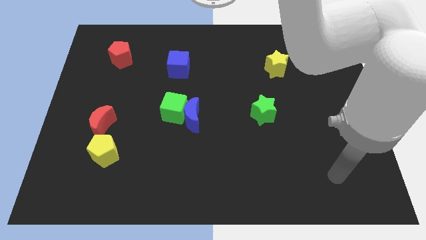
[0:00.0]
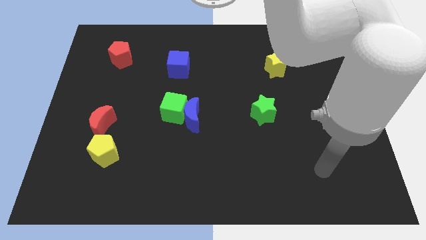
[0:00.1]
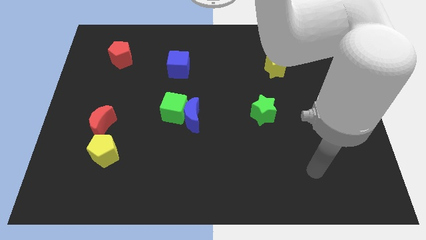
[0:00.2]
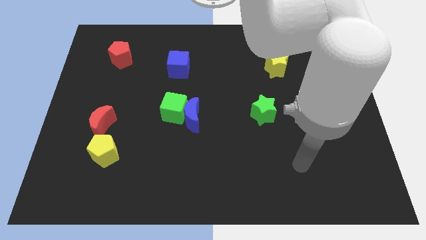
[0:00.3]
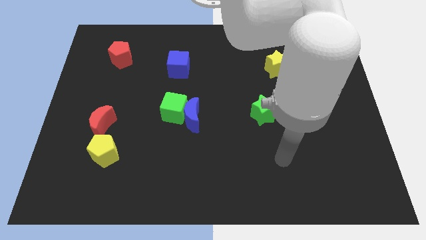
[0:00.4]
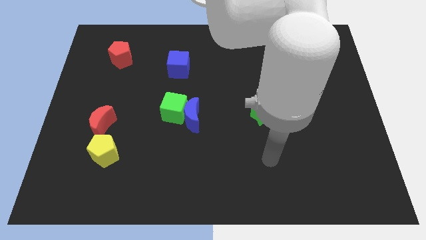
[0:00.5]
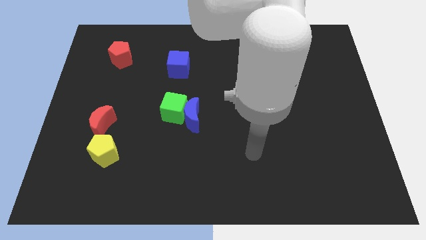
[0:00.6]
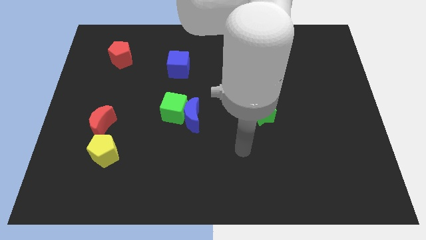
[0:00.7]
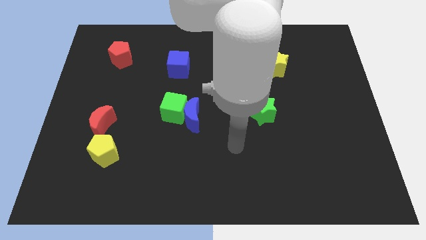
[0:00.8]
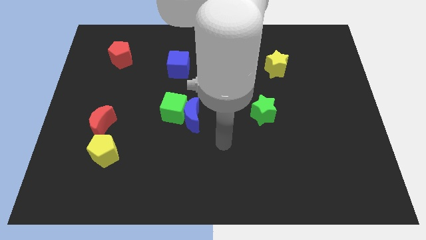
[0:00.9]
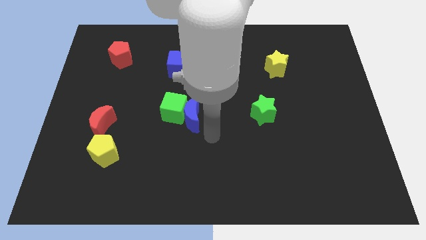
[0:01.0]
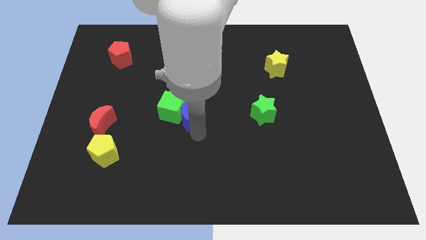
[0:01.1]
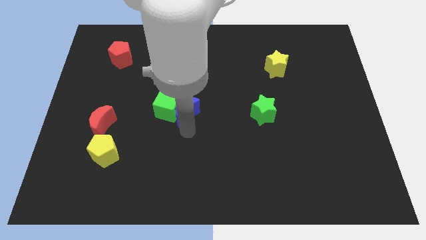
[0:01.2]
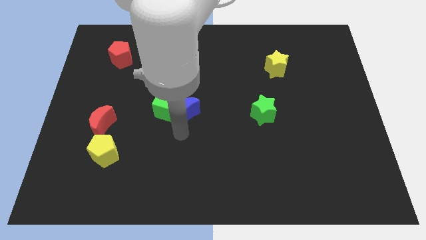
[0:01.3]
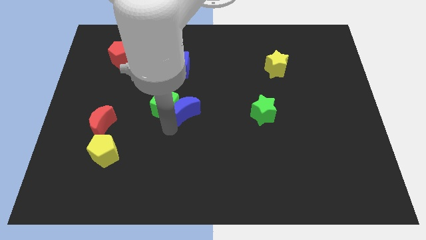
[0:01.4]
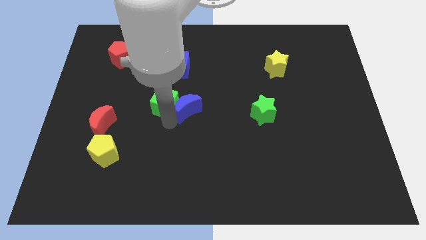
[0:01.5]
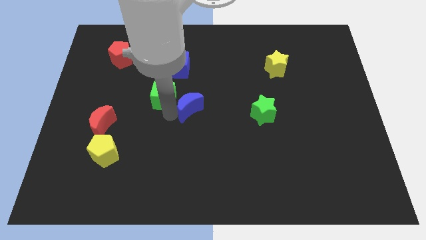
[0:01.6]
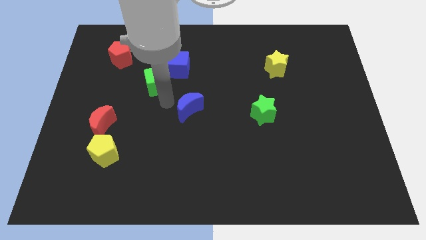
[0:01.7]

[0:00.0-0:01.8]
move the blue moon away from the green cube

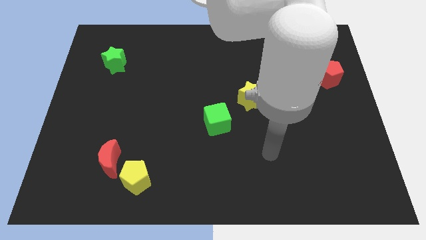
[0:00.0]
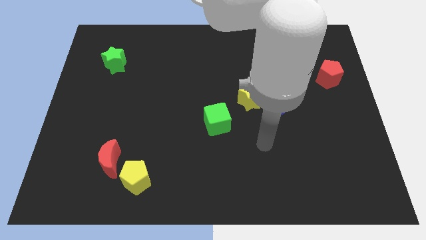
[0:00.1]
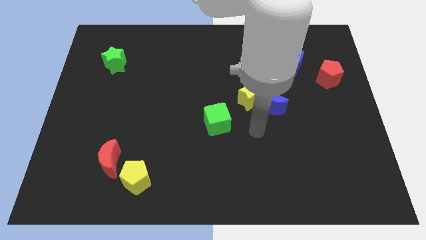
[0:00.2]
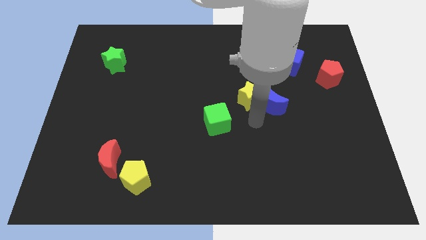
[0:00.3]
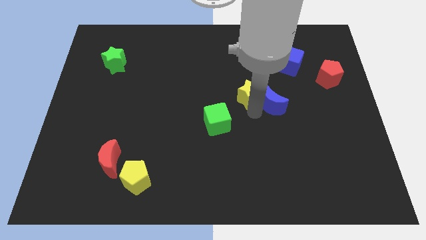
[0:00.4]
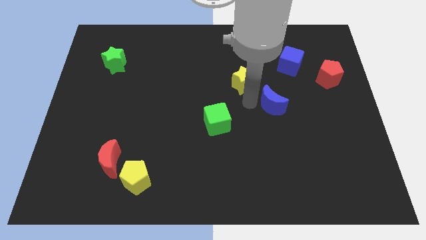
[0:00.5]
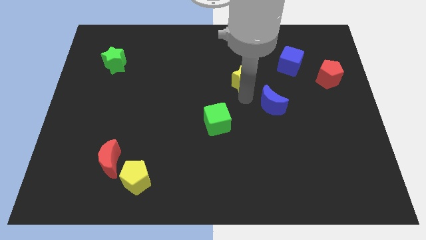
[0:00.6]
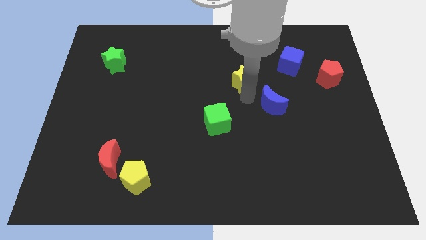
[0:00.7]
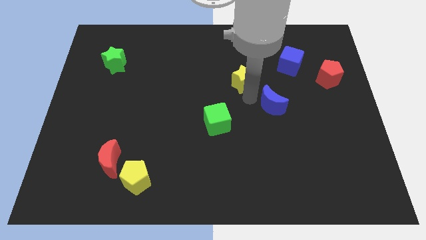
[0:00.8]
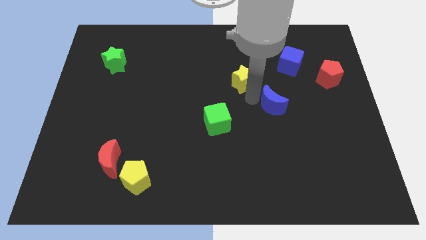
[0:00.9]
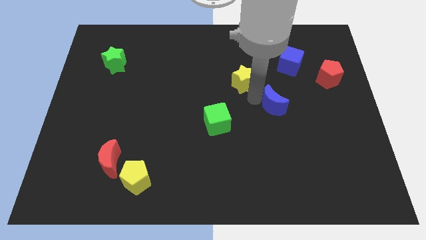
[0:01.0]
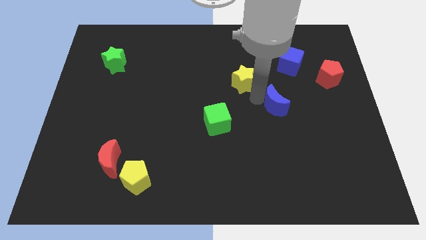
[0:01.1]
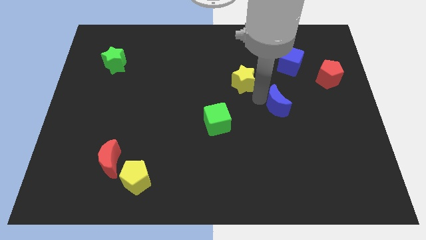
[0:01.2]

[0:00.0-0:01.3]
move the blue moon away from the yellow star

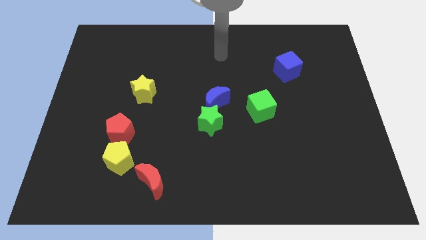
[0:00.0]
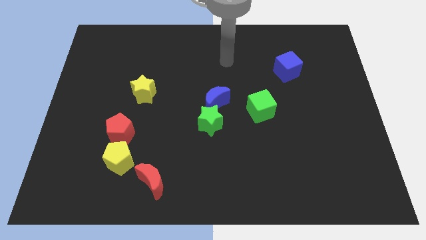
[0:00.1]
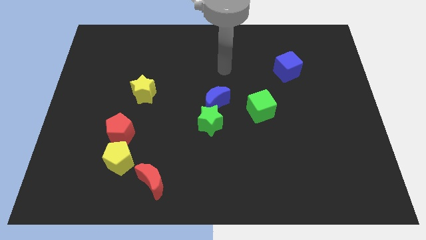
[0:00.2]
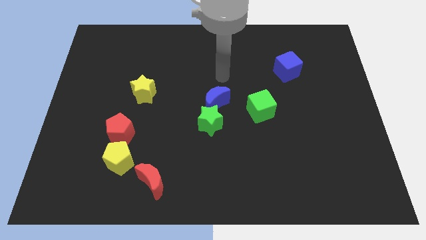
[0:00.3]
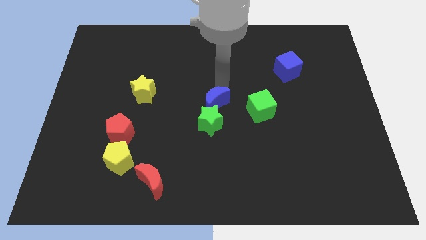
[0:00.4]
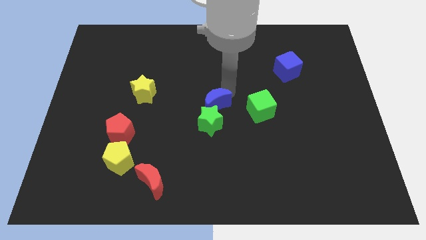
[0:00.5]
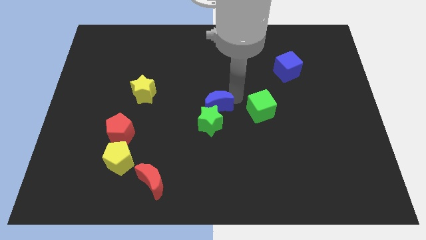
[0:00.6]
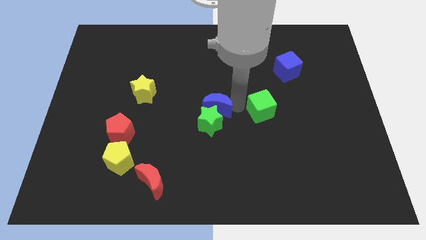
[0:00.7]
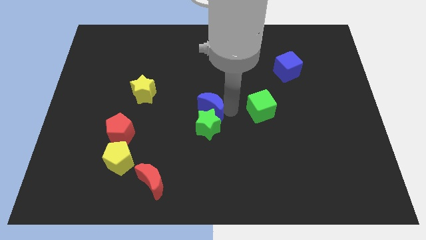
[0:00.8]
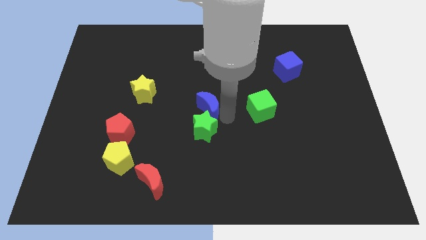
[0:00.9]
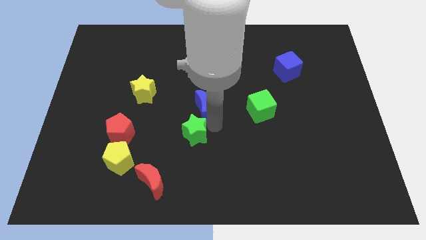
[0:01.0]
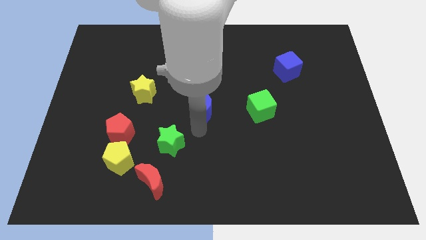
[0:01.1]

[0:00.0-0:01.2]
pull the blue moon apart from the green star

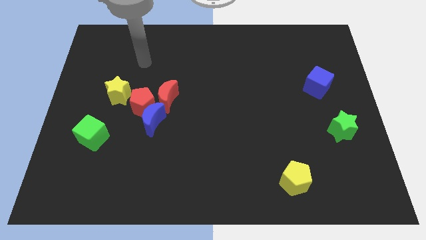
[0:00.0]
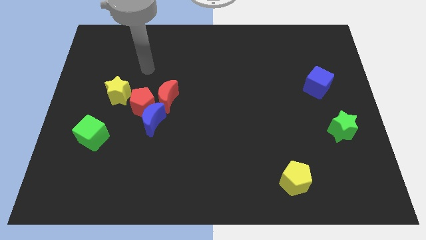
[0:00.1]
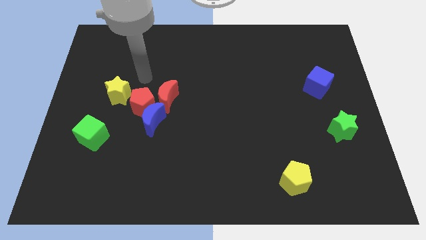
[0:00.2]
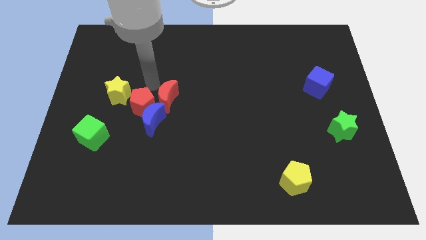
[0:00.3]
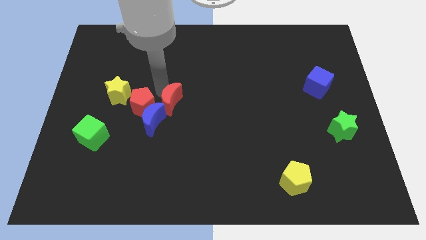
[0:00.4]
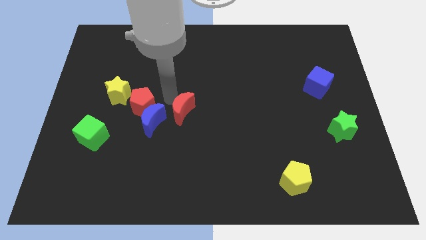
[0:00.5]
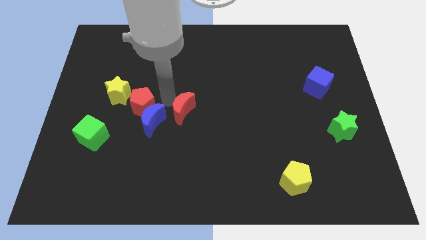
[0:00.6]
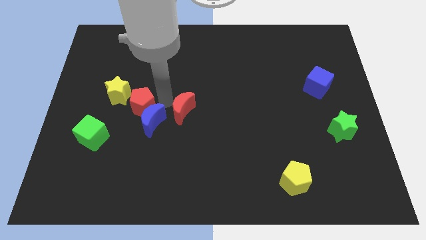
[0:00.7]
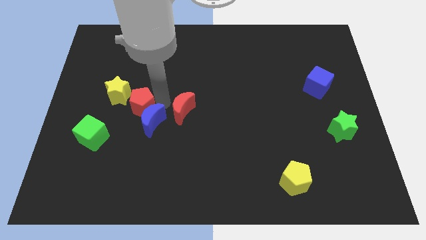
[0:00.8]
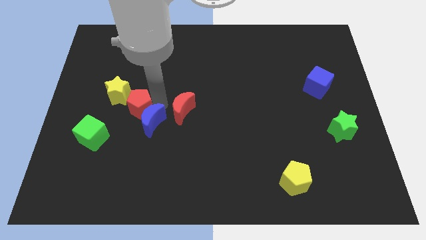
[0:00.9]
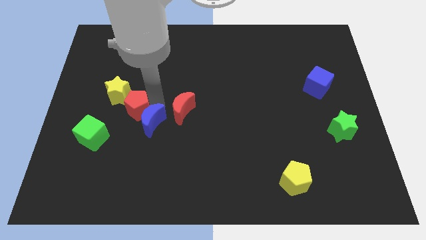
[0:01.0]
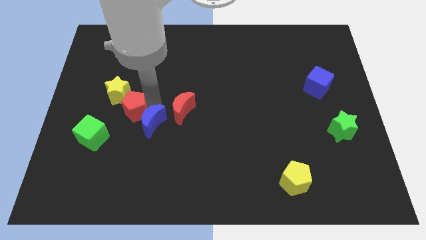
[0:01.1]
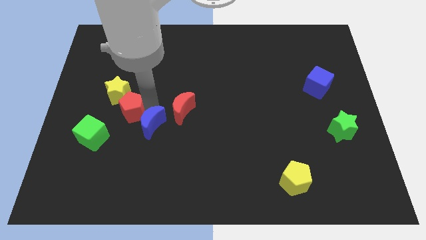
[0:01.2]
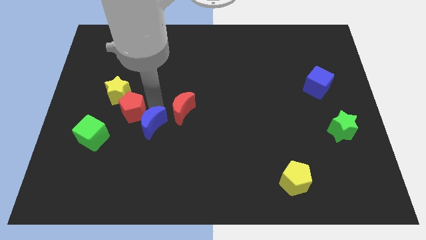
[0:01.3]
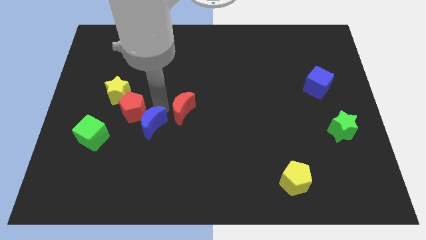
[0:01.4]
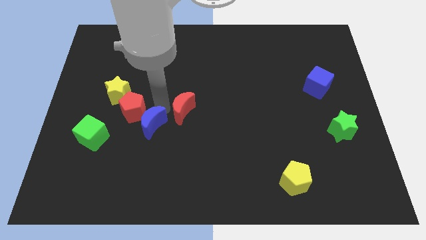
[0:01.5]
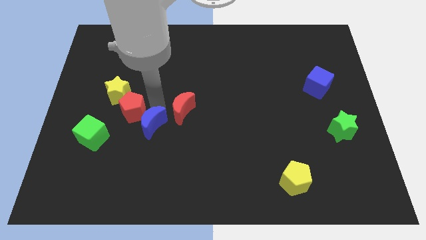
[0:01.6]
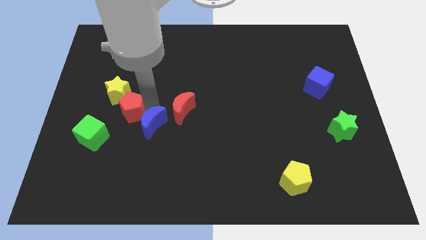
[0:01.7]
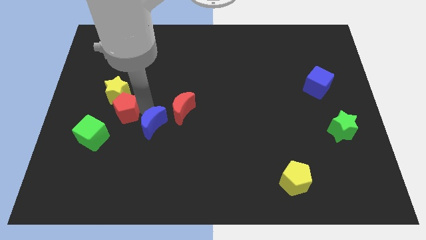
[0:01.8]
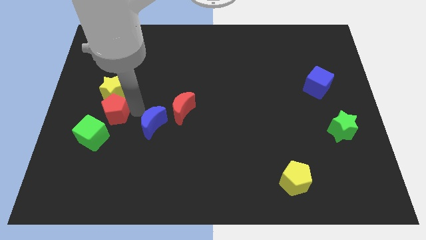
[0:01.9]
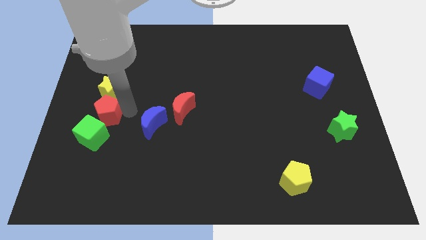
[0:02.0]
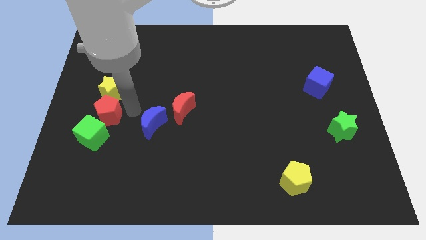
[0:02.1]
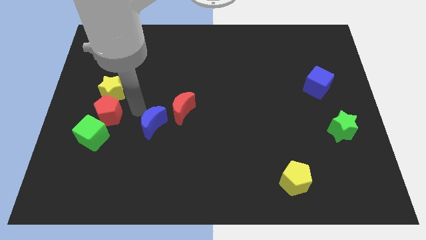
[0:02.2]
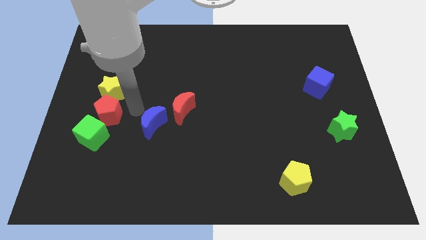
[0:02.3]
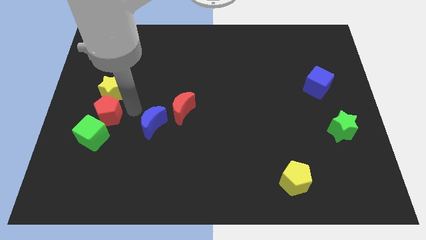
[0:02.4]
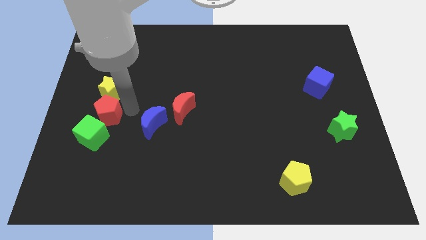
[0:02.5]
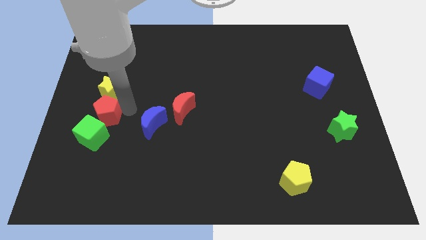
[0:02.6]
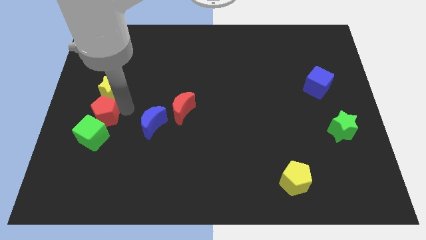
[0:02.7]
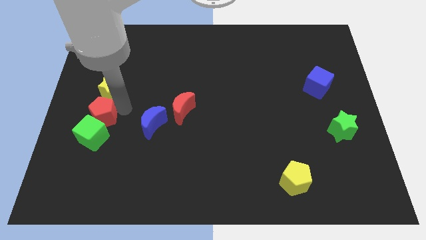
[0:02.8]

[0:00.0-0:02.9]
separate the red pentagon from the group of blocks

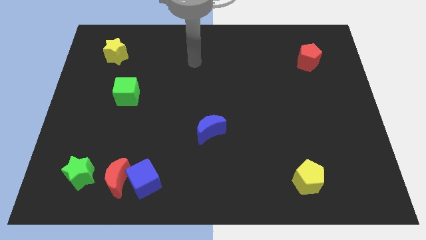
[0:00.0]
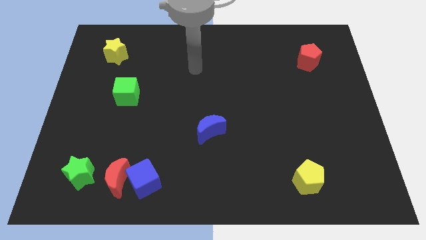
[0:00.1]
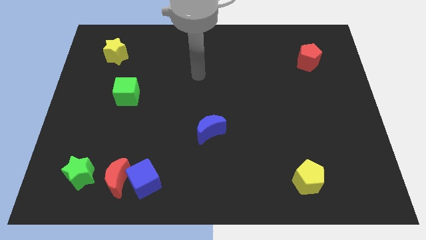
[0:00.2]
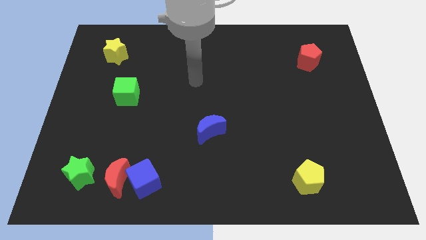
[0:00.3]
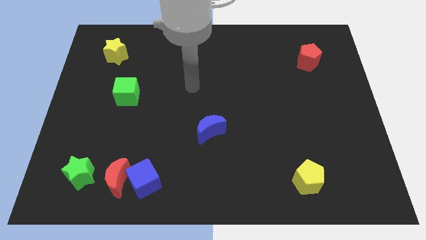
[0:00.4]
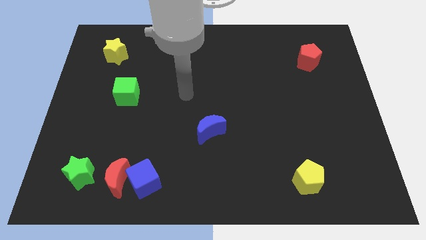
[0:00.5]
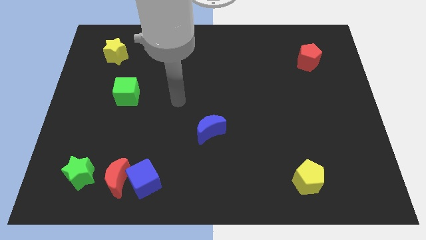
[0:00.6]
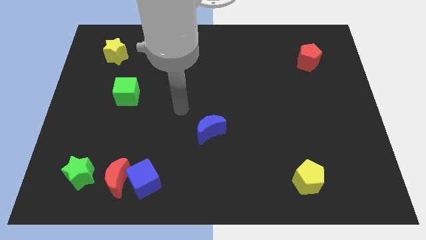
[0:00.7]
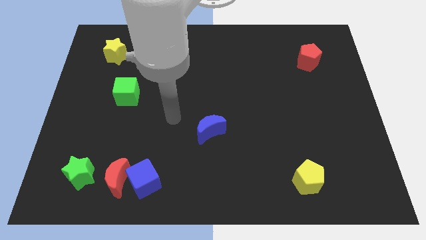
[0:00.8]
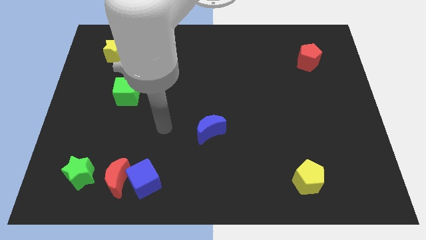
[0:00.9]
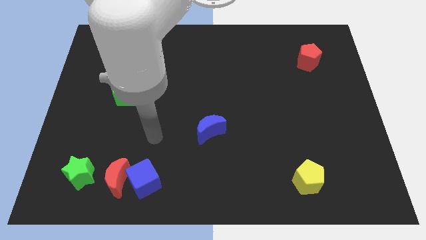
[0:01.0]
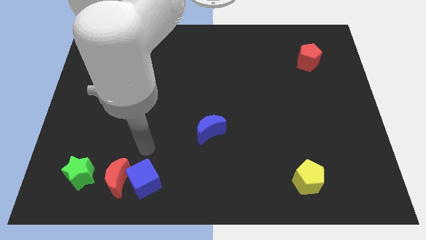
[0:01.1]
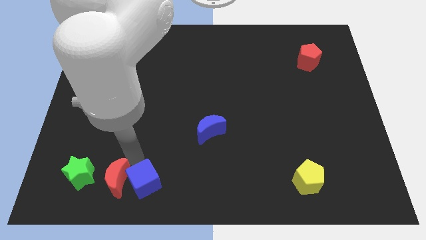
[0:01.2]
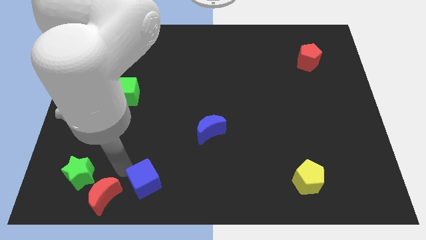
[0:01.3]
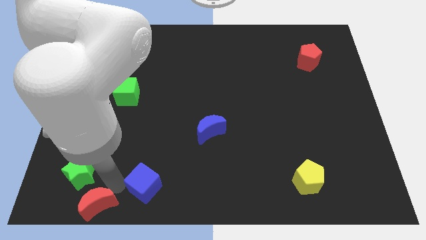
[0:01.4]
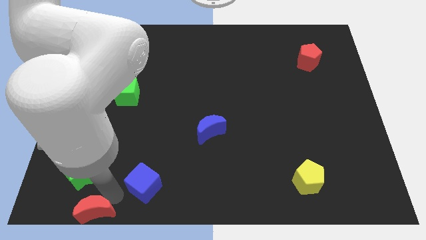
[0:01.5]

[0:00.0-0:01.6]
move the blue cube away from the red moon

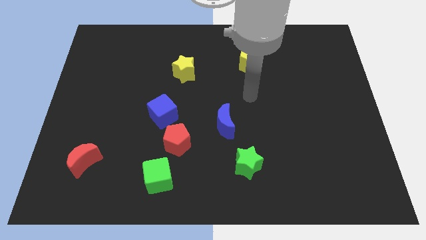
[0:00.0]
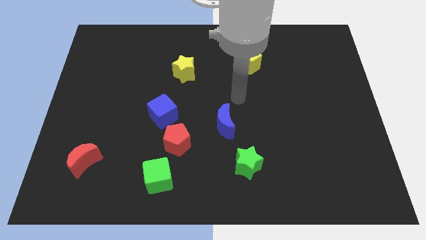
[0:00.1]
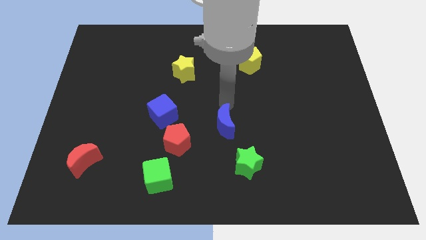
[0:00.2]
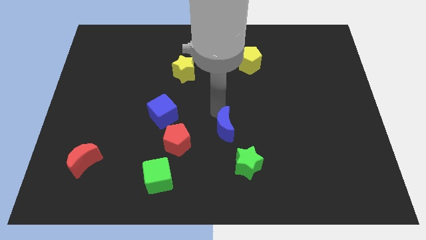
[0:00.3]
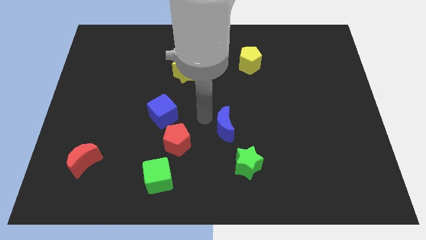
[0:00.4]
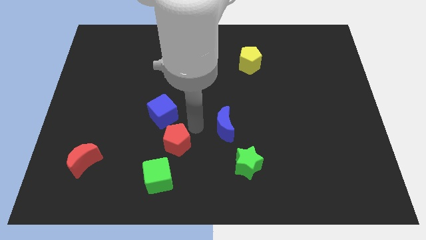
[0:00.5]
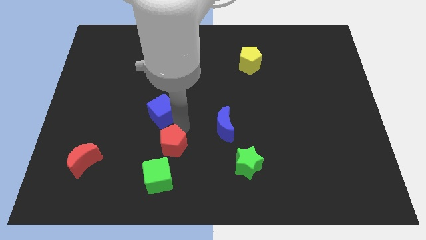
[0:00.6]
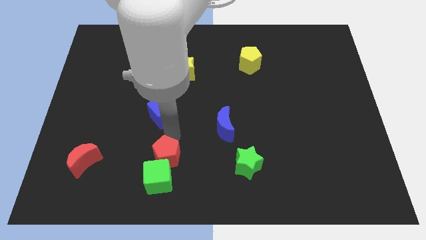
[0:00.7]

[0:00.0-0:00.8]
pull the blue cube apart from the red pentagon
